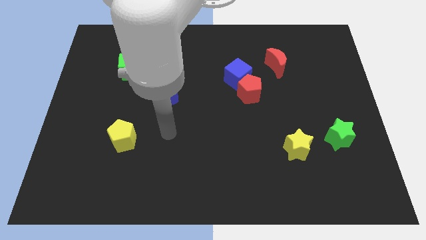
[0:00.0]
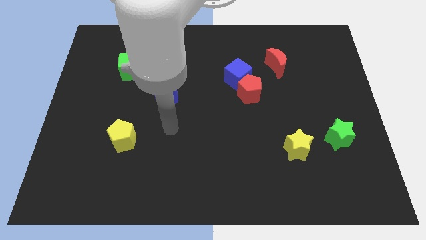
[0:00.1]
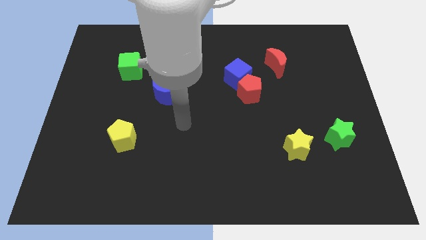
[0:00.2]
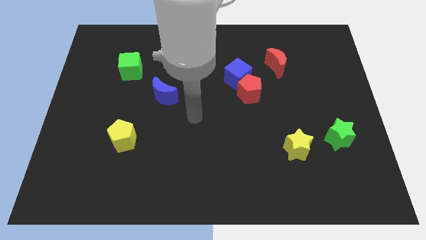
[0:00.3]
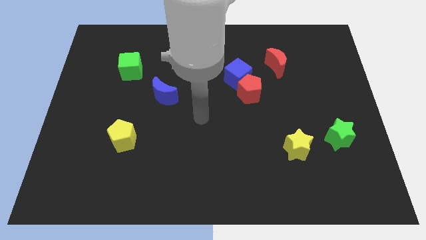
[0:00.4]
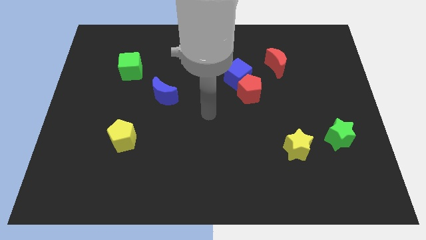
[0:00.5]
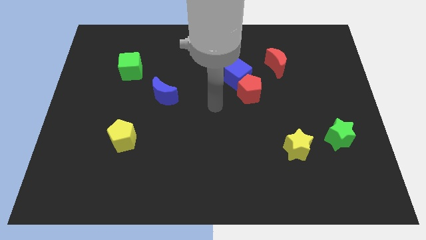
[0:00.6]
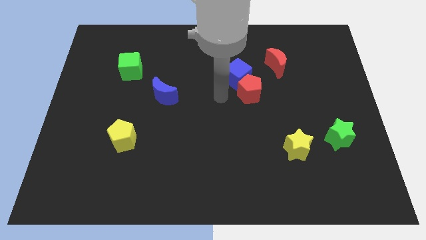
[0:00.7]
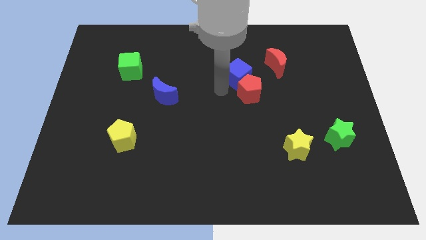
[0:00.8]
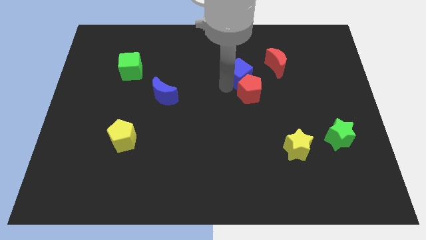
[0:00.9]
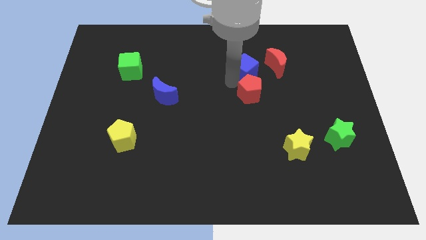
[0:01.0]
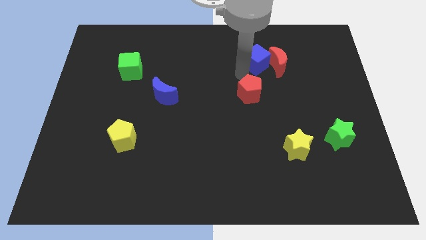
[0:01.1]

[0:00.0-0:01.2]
pull the red pentagon apart from the blue cube

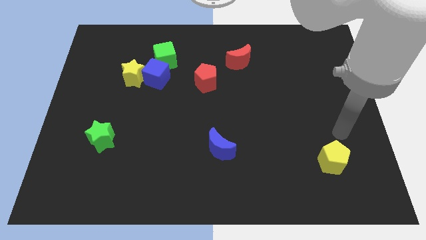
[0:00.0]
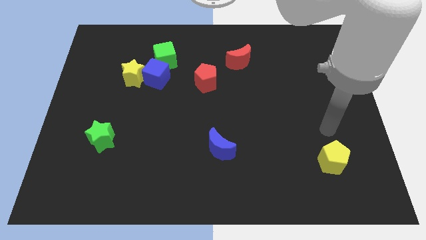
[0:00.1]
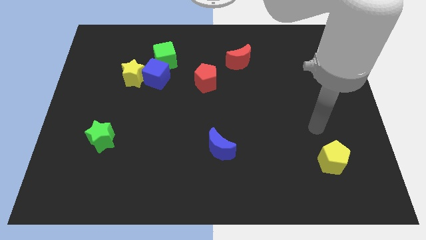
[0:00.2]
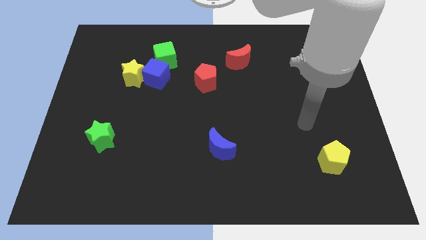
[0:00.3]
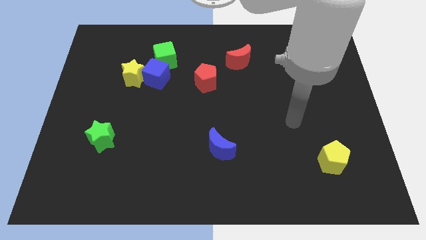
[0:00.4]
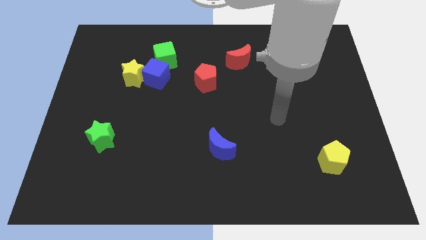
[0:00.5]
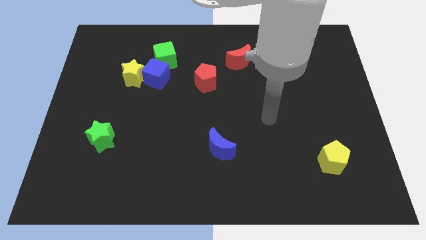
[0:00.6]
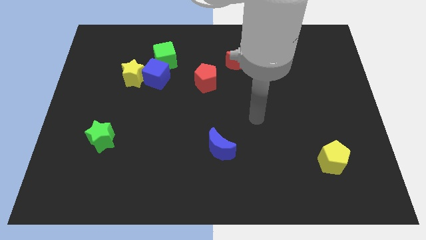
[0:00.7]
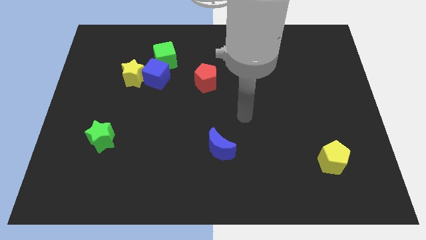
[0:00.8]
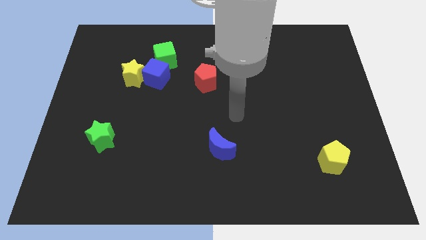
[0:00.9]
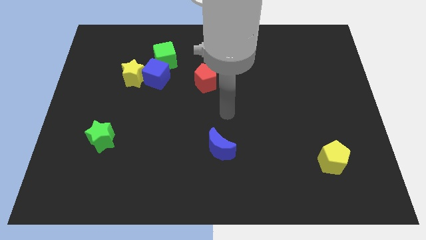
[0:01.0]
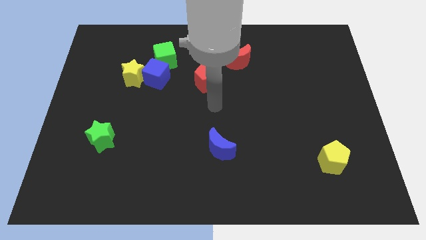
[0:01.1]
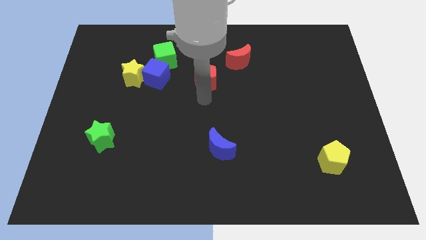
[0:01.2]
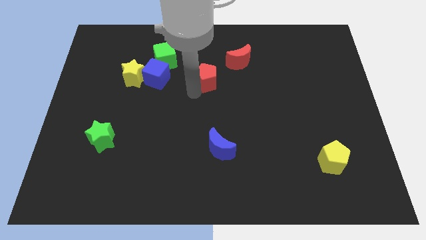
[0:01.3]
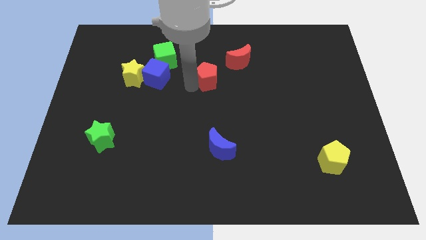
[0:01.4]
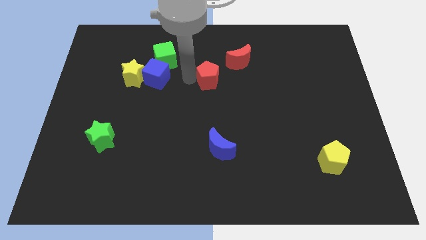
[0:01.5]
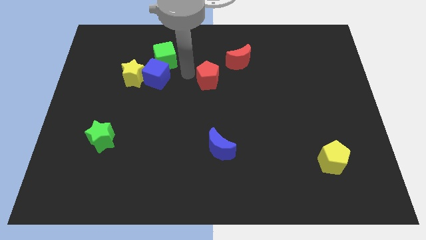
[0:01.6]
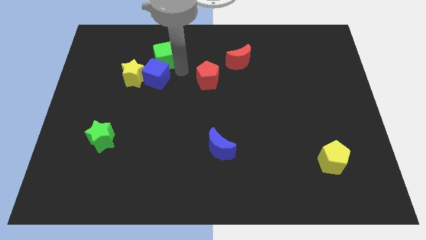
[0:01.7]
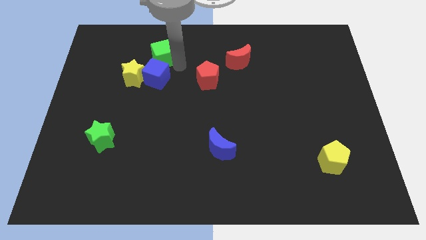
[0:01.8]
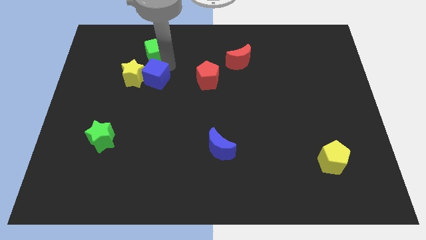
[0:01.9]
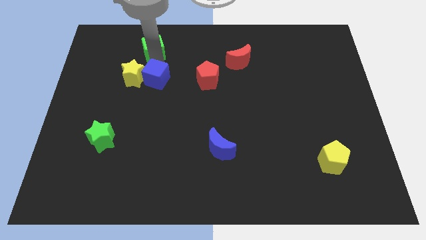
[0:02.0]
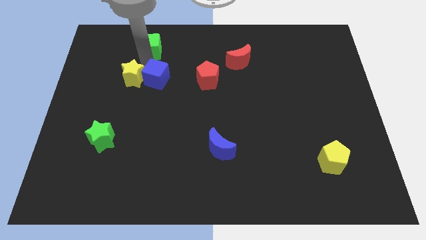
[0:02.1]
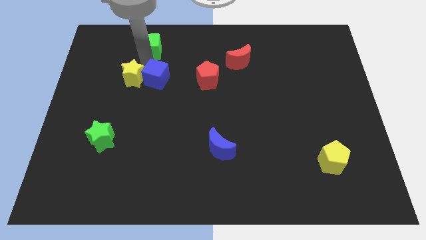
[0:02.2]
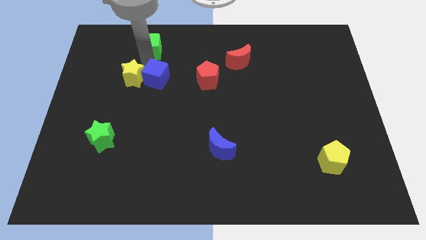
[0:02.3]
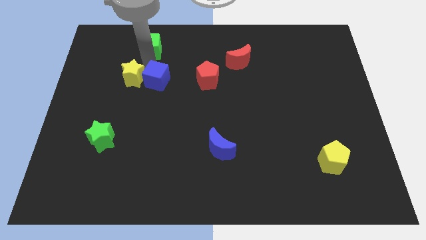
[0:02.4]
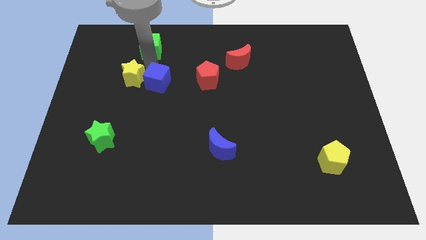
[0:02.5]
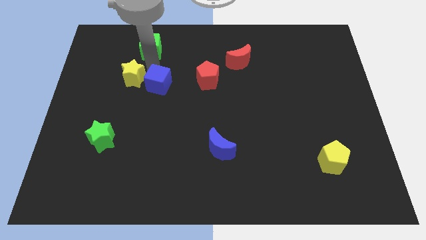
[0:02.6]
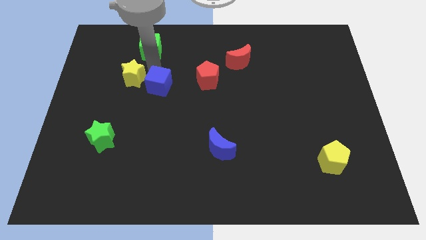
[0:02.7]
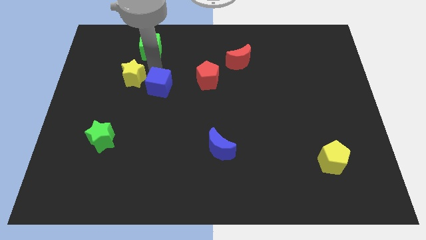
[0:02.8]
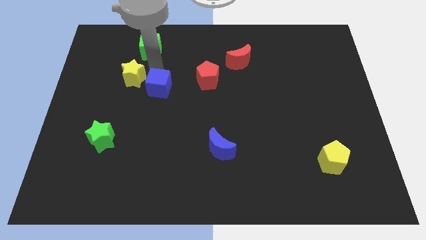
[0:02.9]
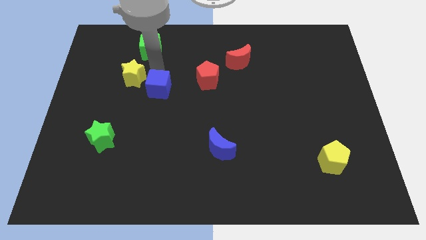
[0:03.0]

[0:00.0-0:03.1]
separate the blue cube from the yellow star and green cube

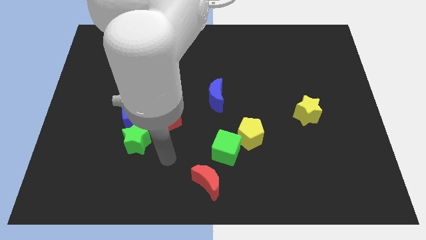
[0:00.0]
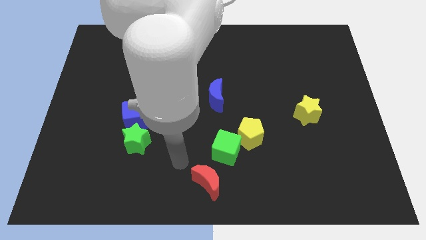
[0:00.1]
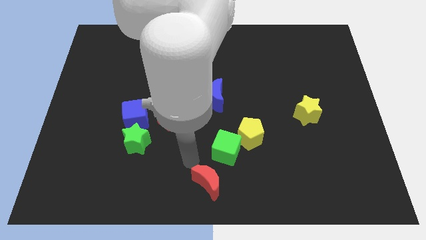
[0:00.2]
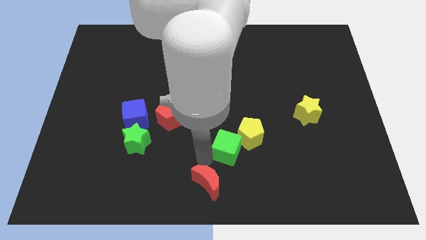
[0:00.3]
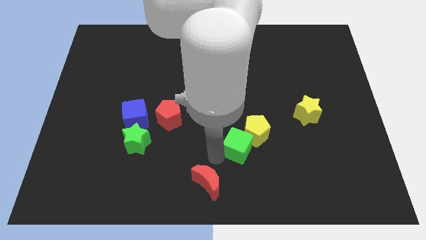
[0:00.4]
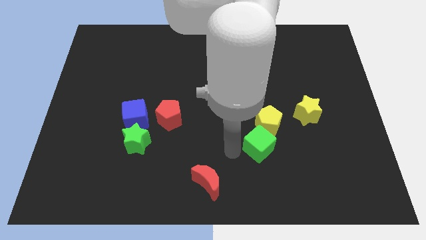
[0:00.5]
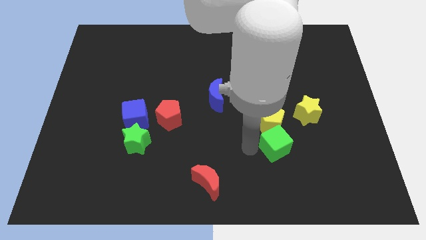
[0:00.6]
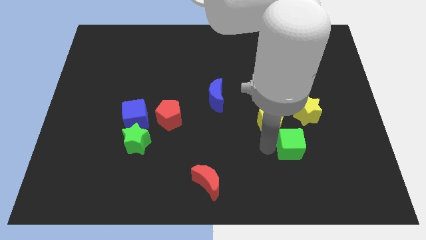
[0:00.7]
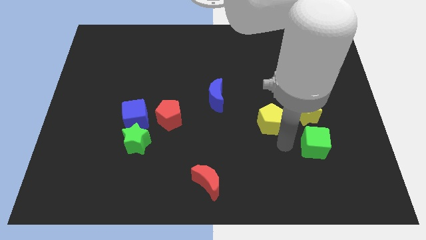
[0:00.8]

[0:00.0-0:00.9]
move the yellow pentagon away from the green cube

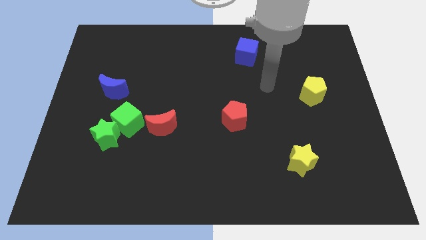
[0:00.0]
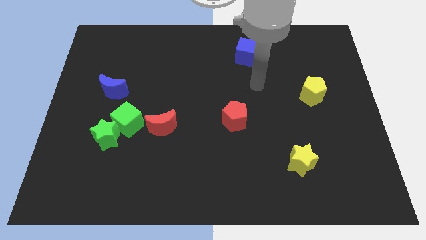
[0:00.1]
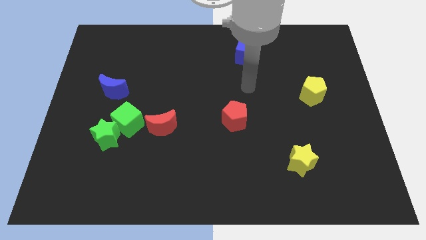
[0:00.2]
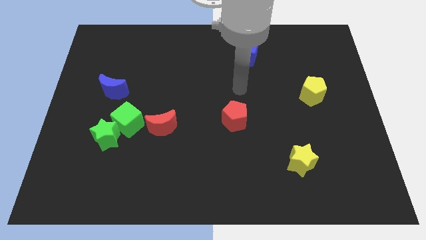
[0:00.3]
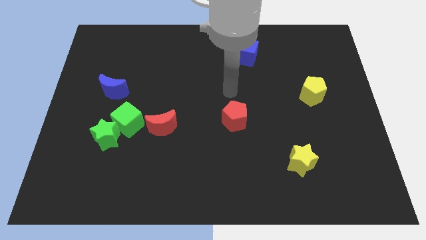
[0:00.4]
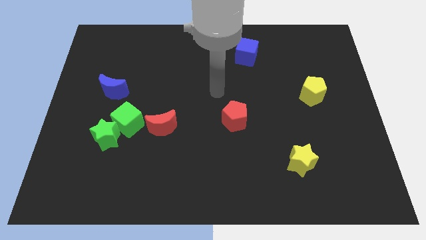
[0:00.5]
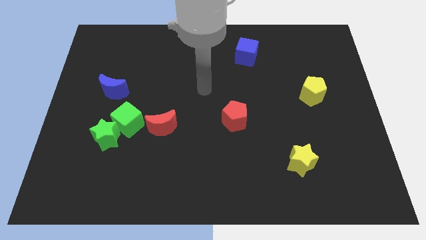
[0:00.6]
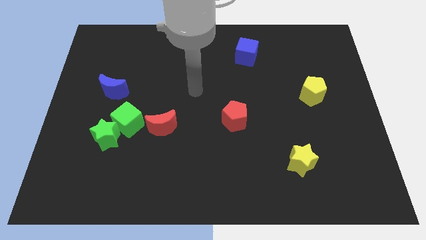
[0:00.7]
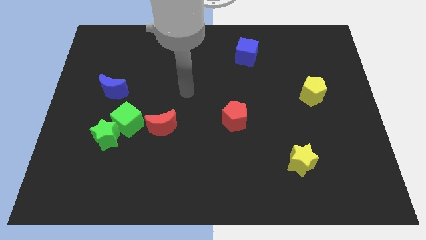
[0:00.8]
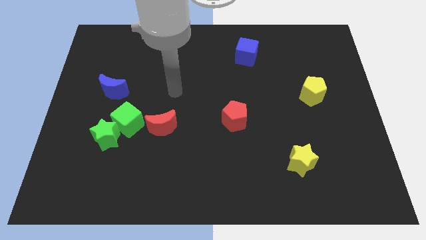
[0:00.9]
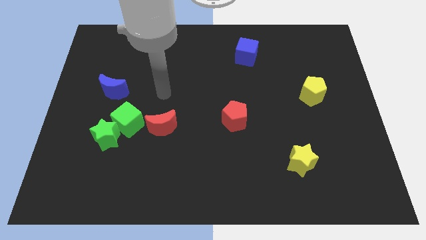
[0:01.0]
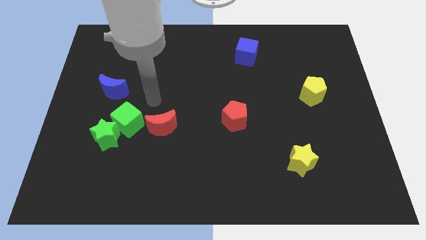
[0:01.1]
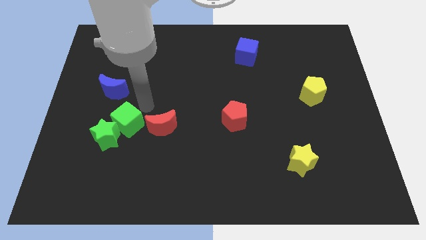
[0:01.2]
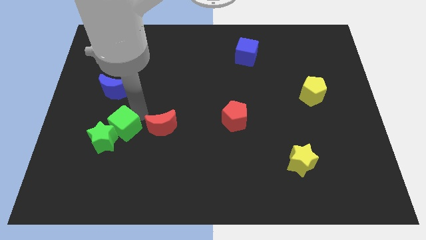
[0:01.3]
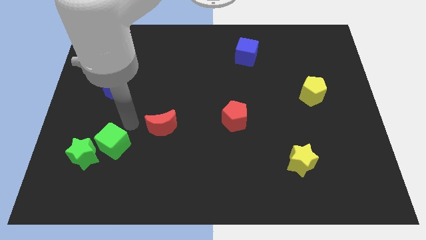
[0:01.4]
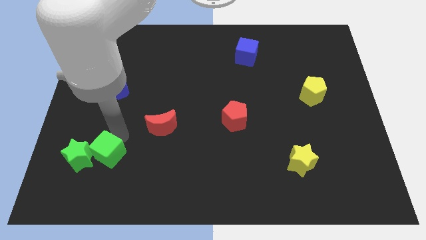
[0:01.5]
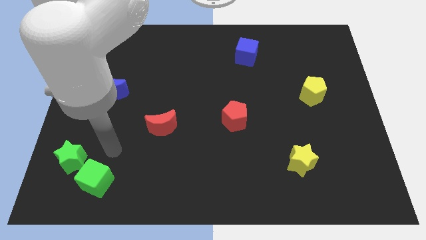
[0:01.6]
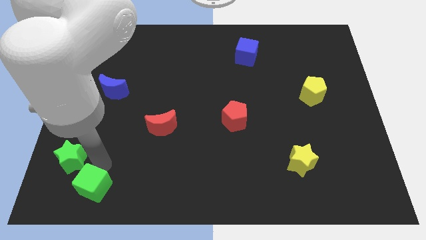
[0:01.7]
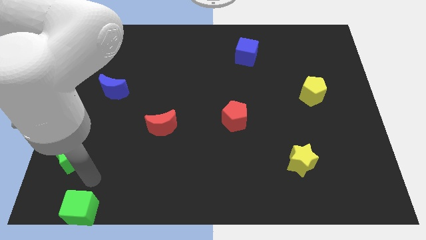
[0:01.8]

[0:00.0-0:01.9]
move the green star away from the green cube

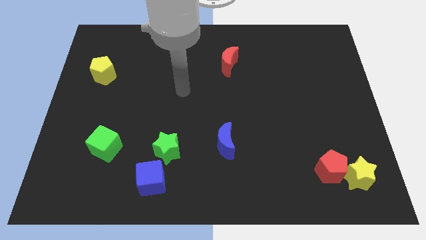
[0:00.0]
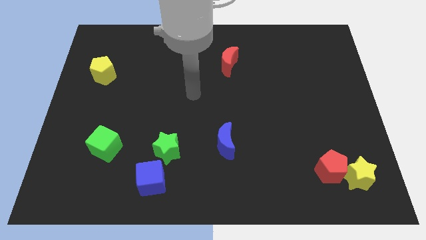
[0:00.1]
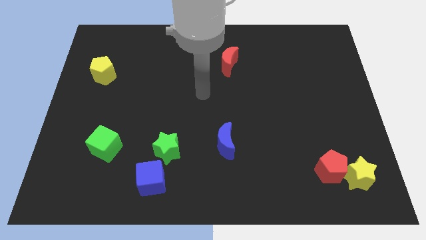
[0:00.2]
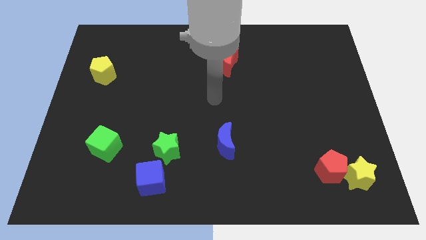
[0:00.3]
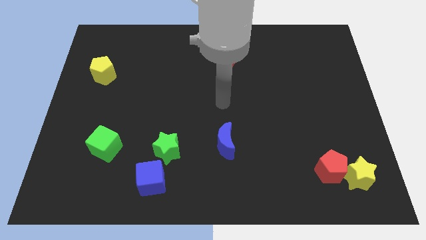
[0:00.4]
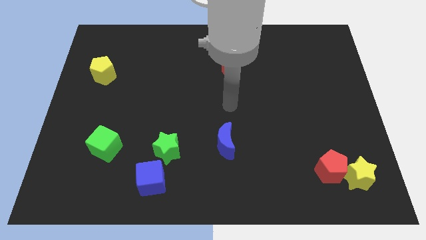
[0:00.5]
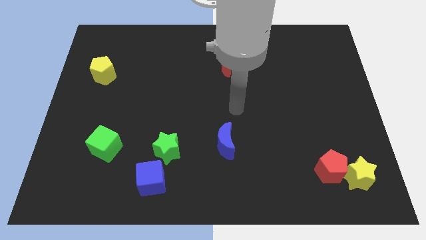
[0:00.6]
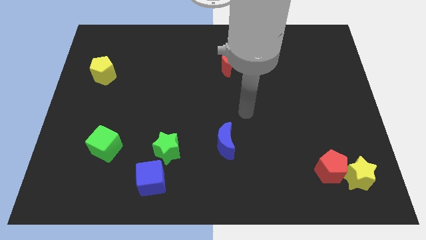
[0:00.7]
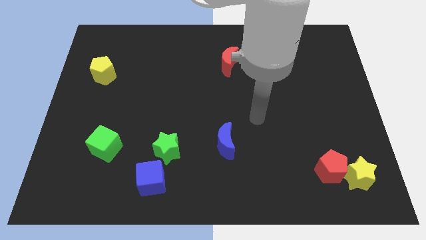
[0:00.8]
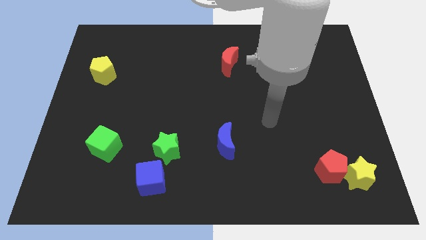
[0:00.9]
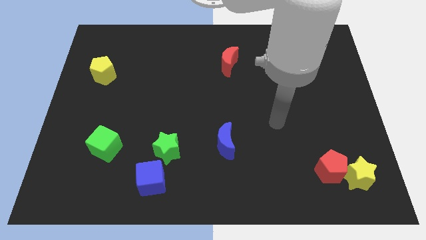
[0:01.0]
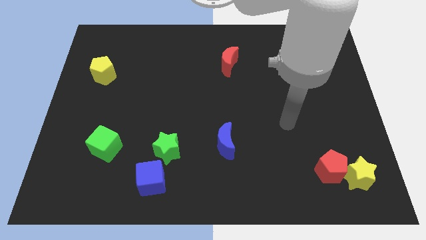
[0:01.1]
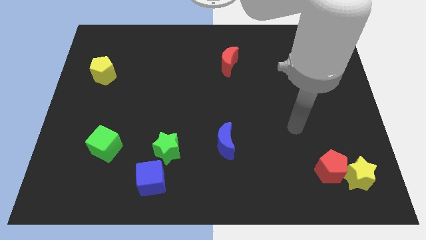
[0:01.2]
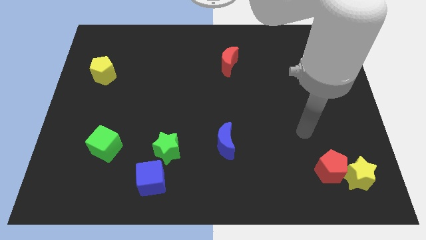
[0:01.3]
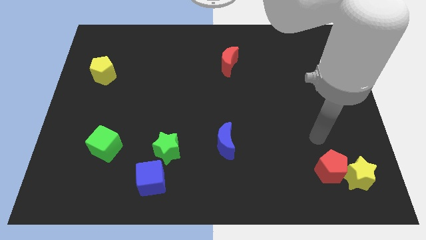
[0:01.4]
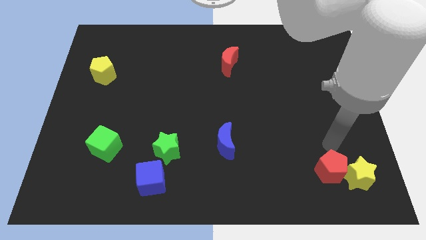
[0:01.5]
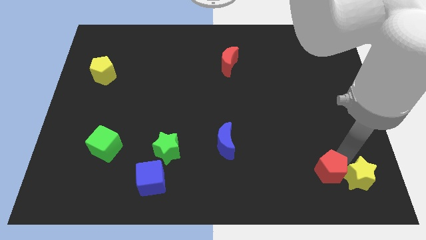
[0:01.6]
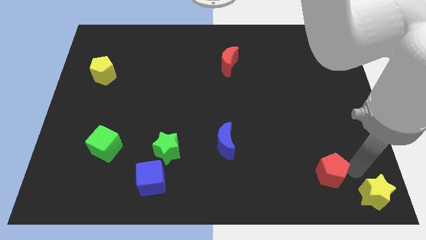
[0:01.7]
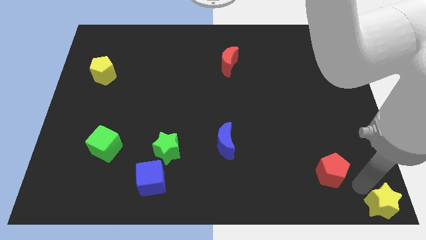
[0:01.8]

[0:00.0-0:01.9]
pull the red pentagon apart from the yellow star

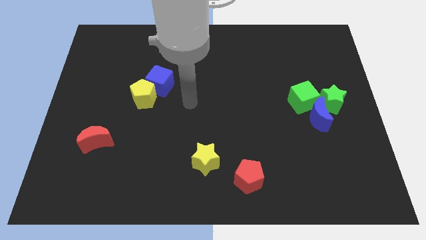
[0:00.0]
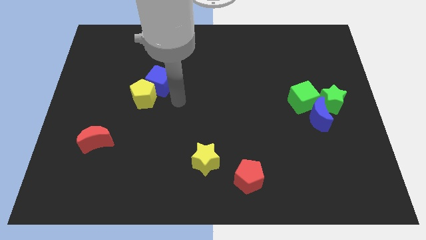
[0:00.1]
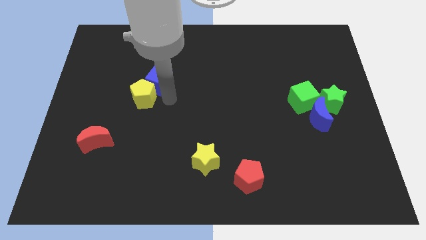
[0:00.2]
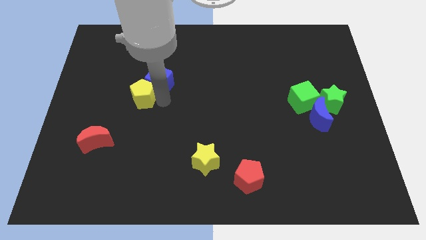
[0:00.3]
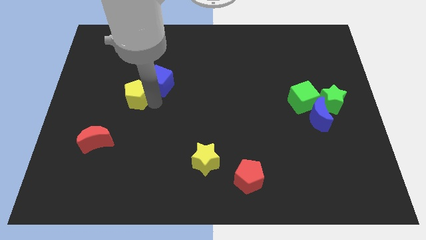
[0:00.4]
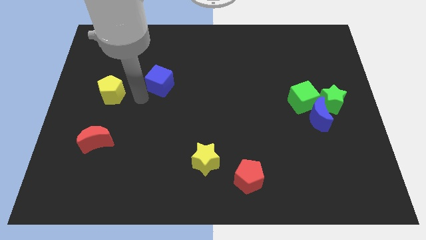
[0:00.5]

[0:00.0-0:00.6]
move the blue cube away from the yellow pentagon
